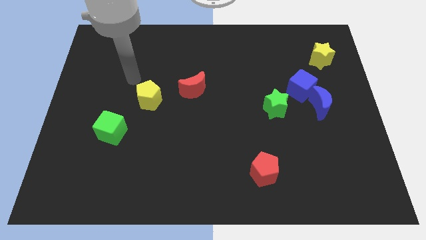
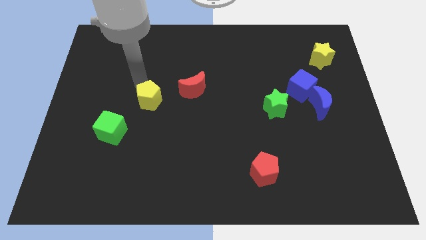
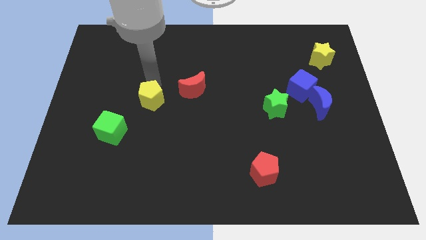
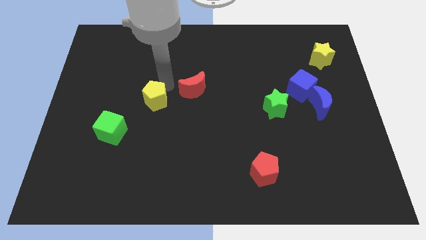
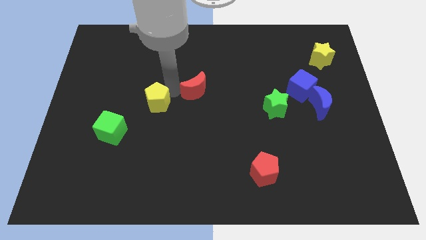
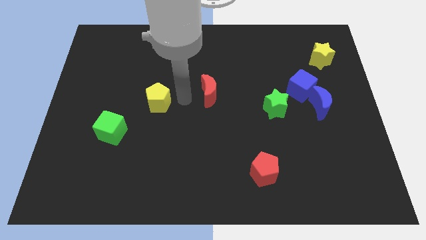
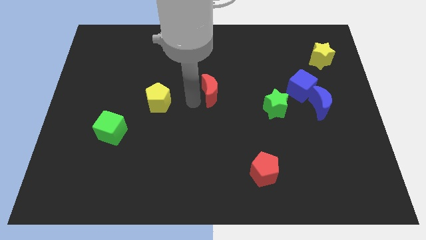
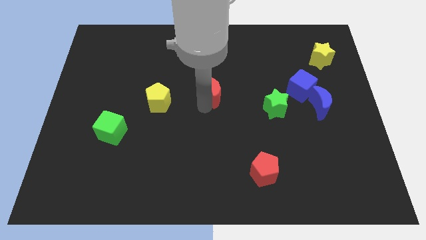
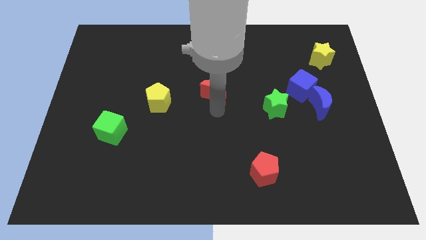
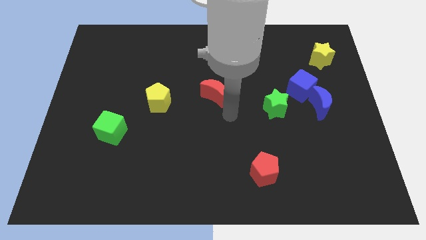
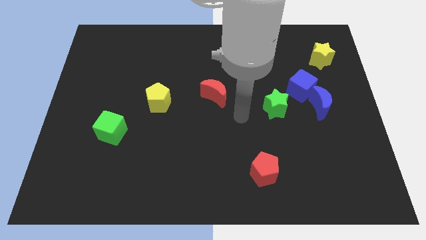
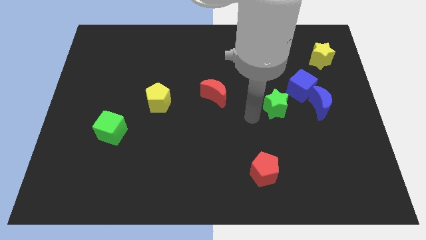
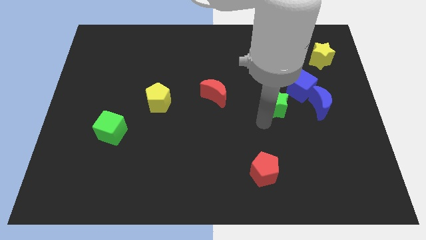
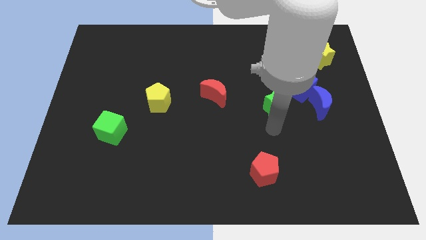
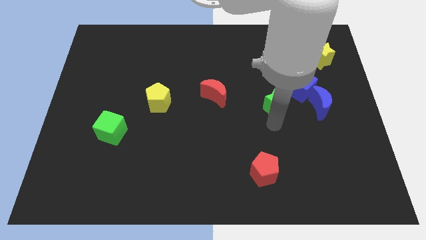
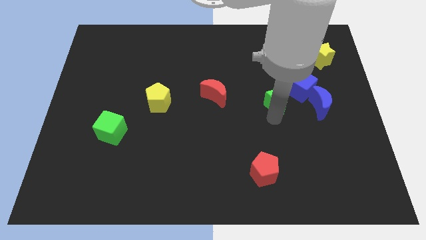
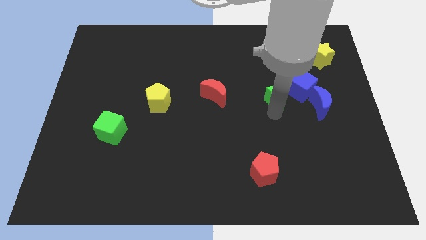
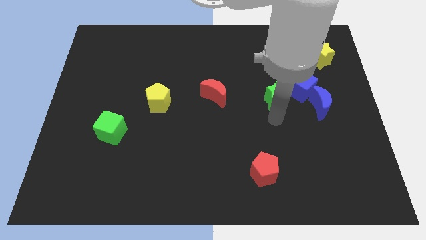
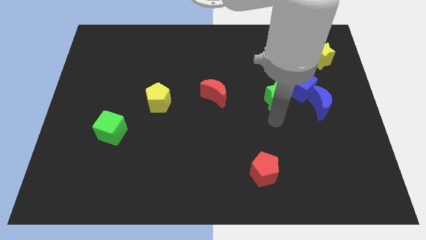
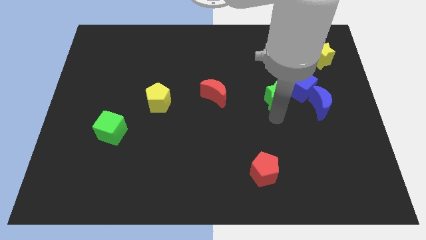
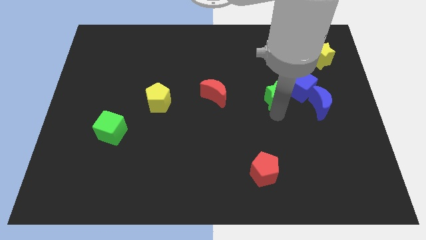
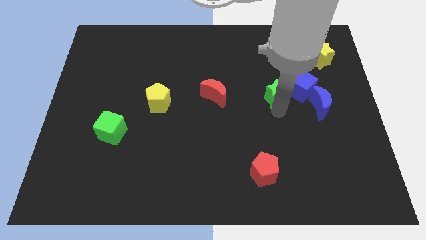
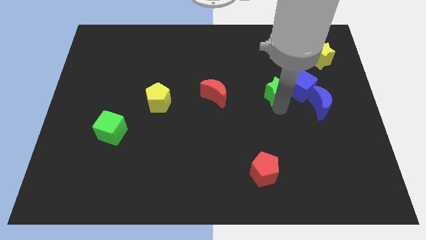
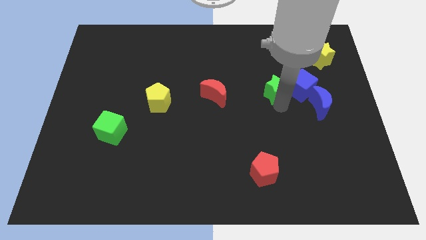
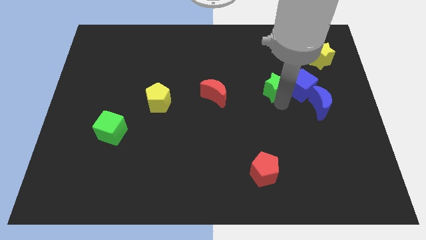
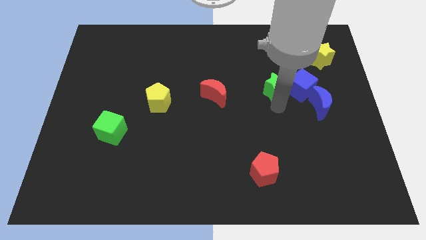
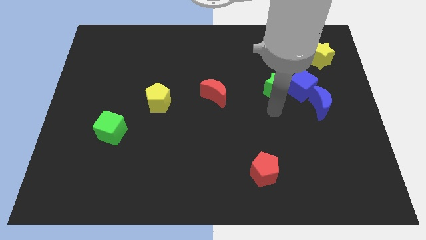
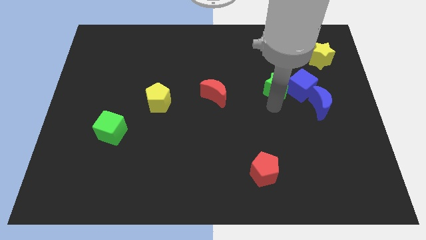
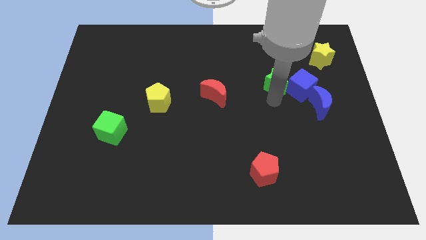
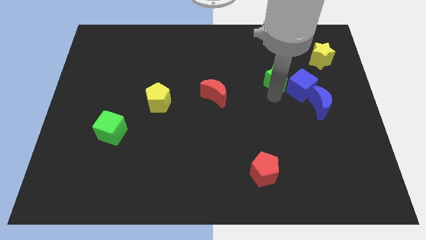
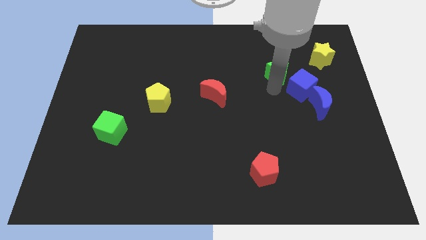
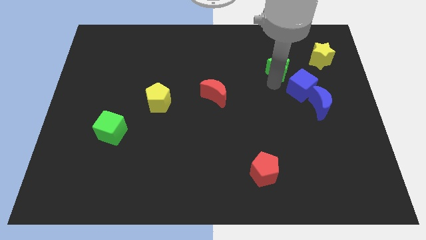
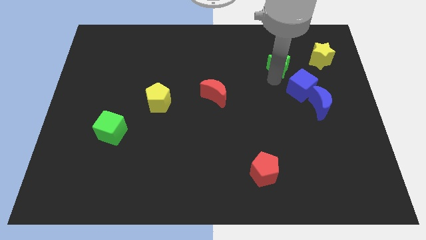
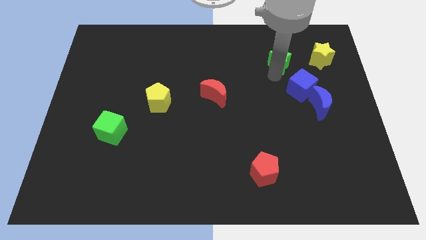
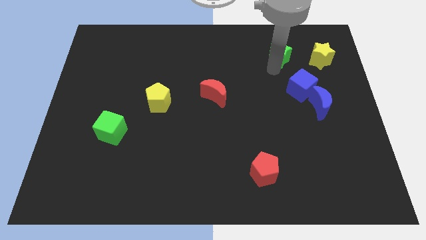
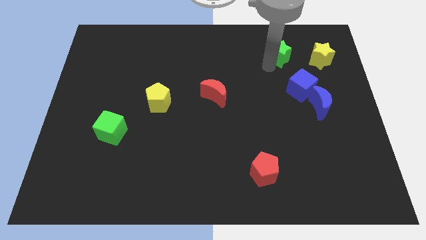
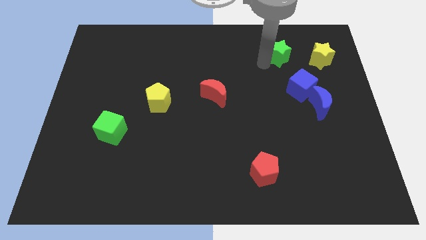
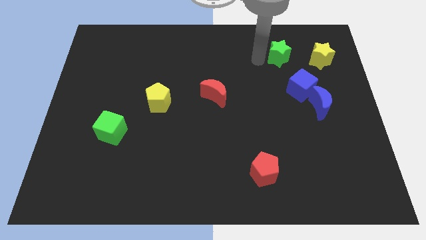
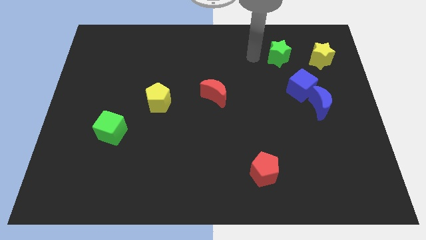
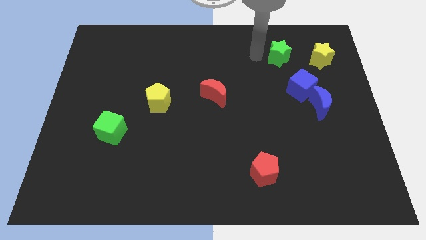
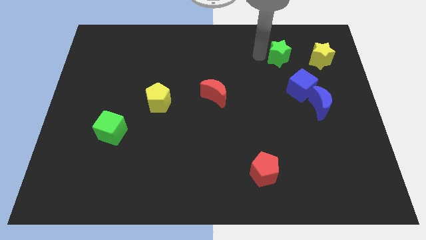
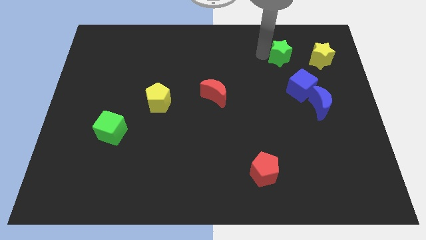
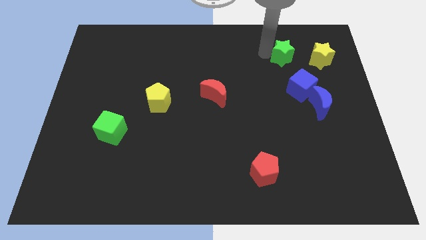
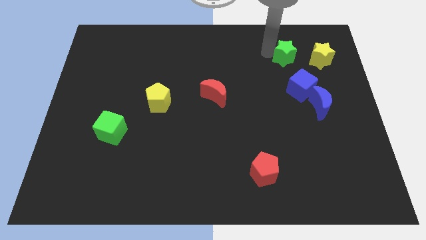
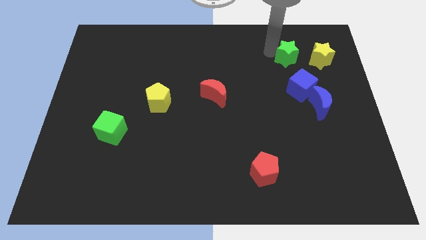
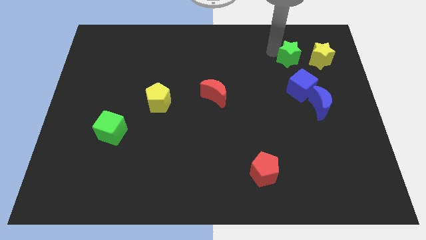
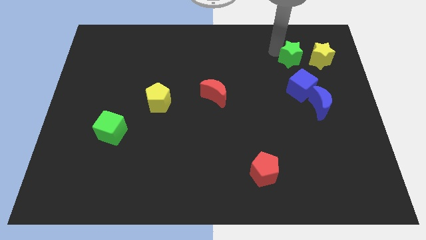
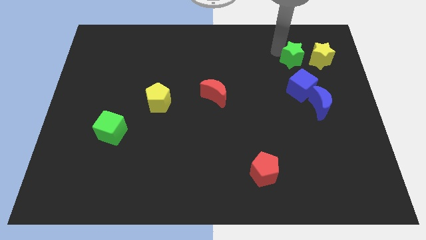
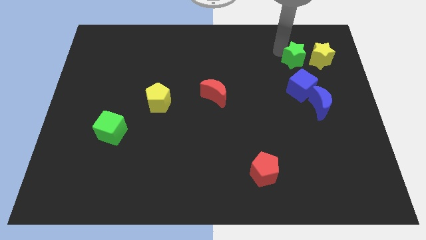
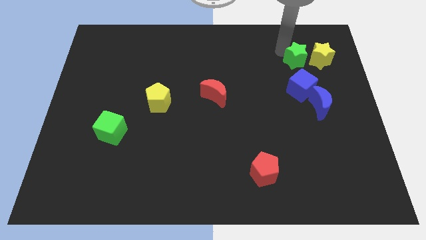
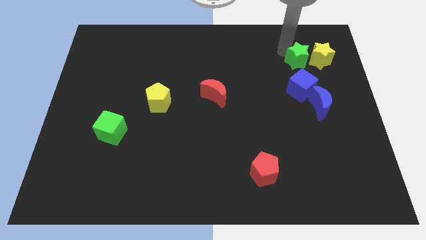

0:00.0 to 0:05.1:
move the green star to the yellow star

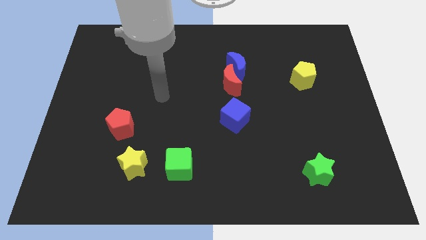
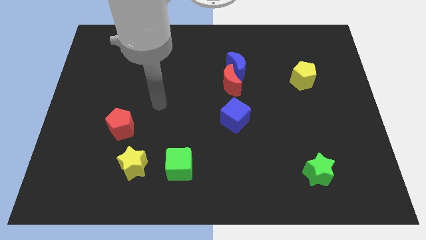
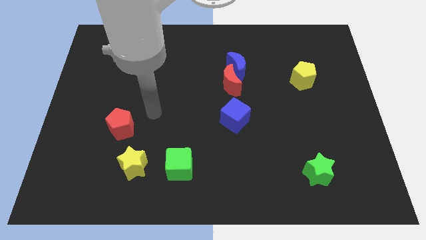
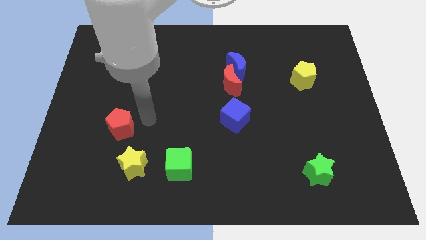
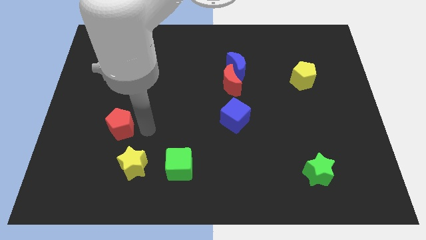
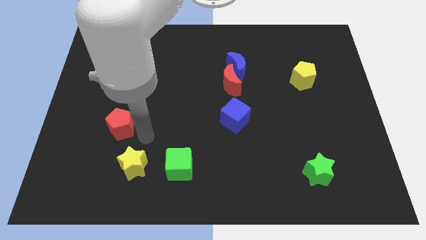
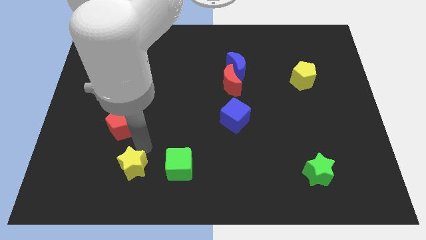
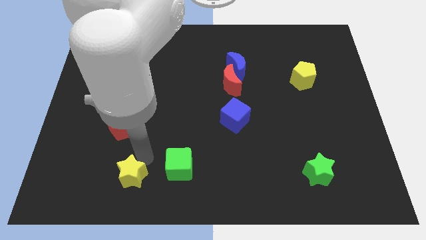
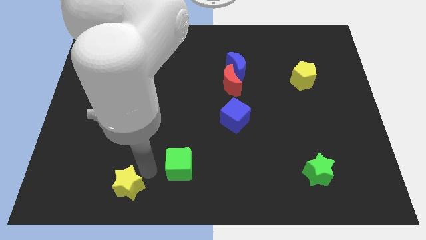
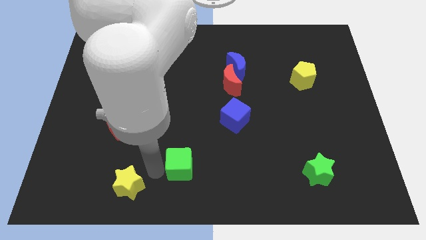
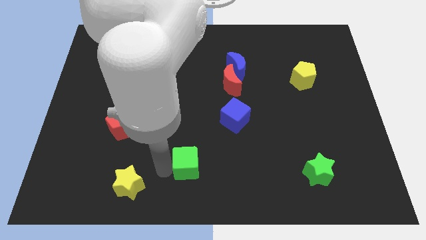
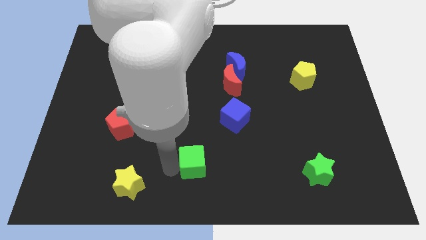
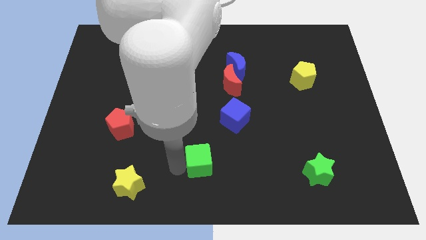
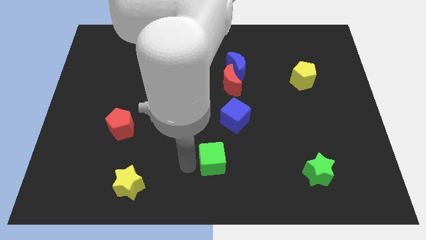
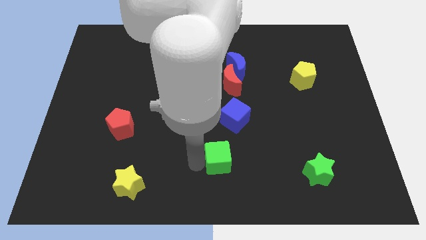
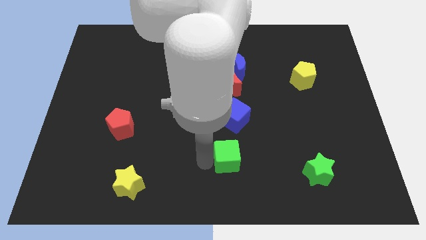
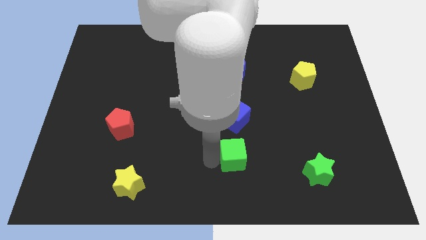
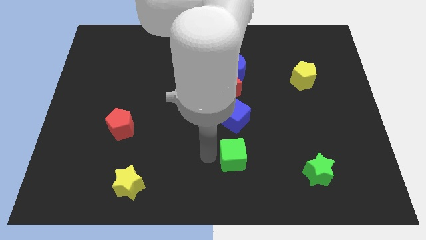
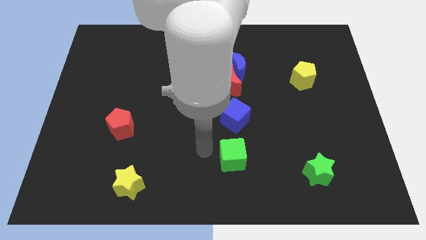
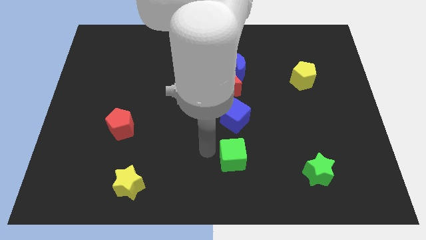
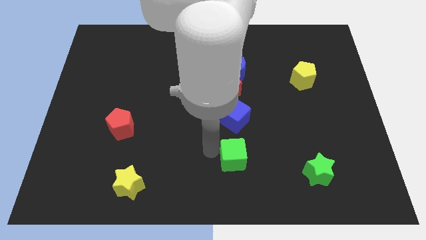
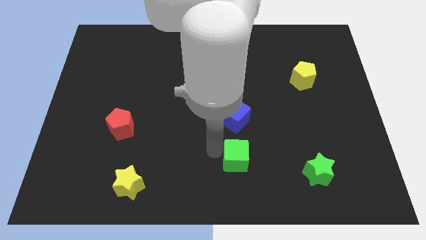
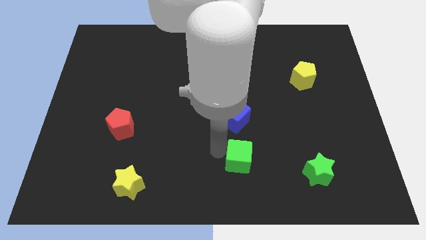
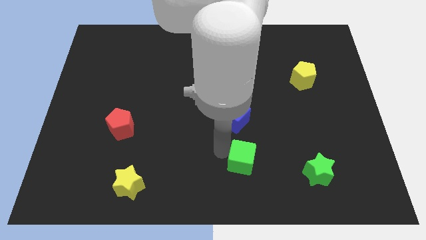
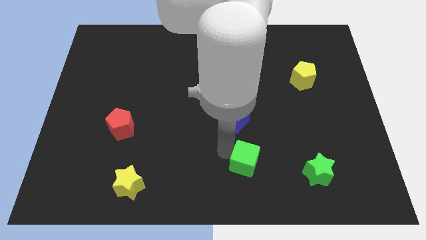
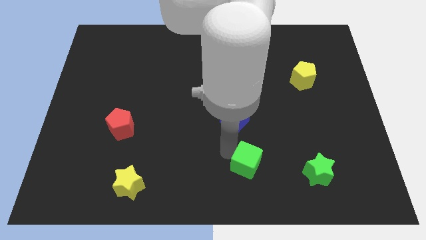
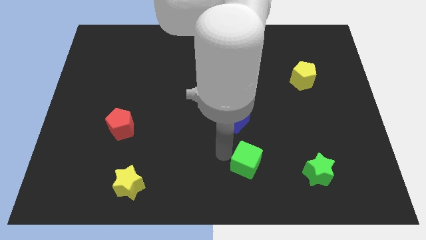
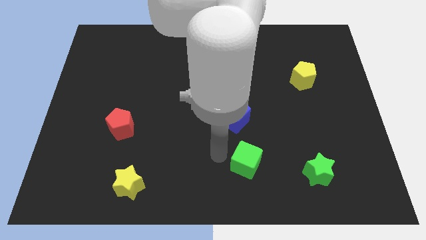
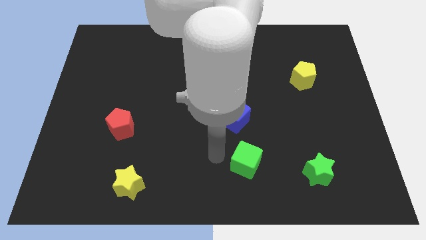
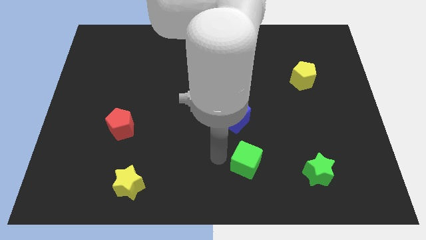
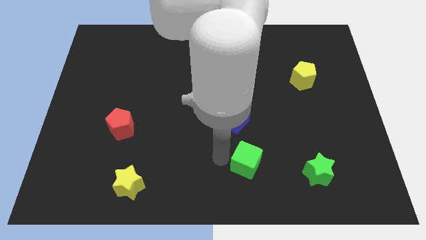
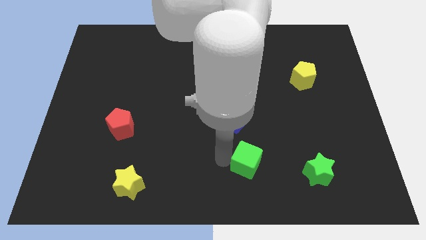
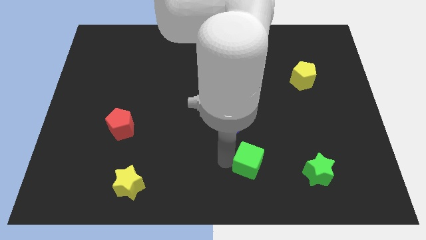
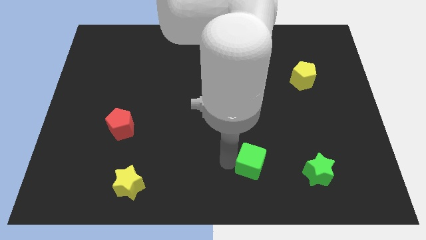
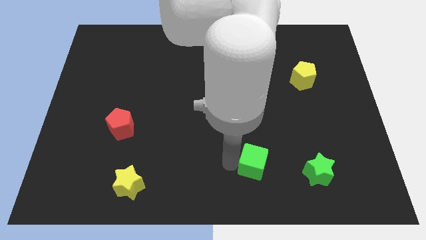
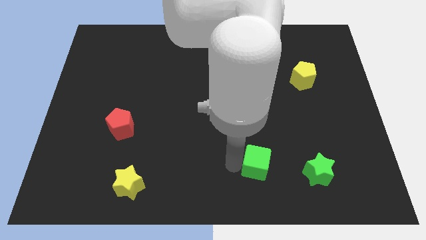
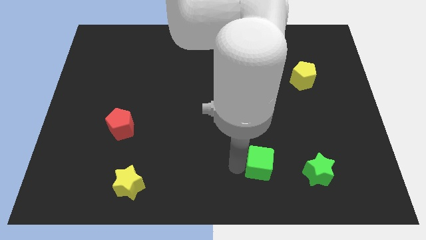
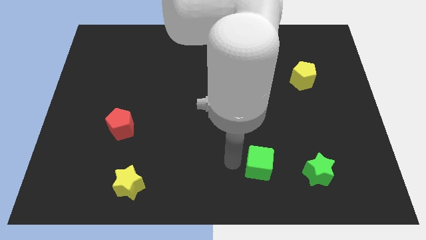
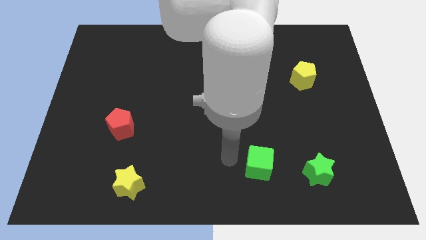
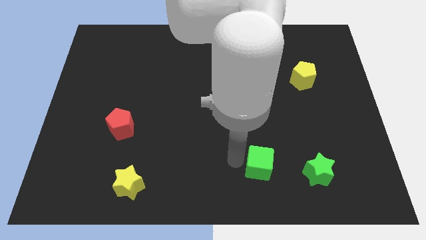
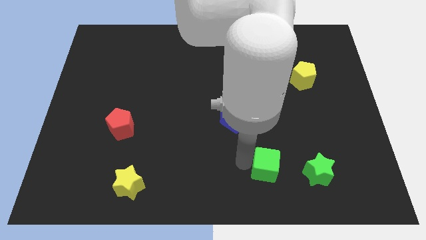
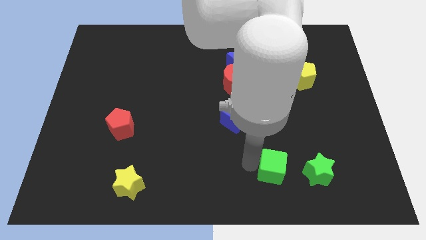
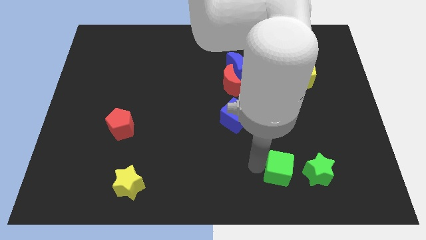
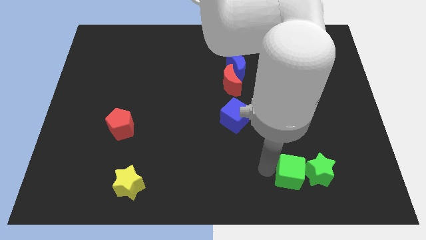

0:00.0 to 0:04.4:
move the green cube towards the green star
